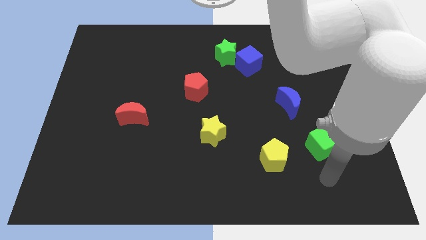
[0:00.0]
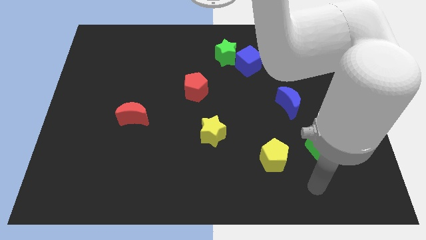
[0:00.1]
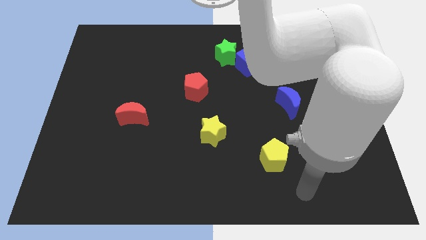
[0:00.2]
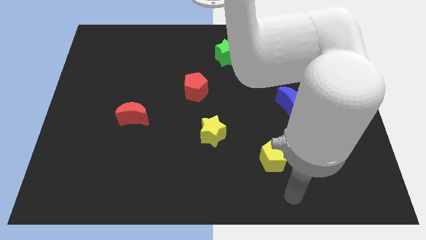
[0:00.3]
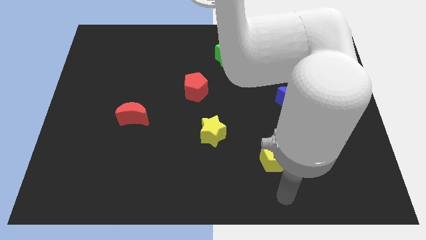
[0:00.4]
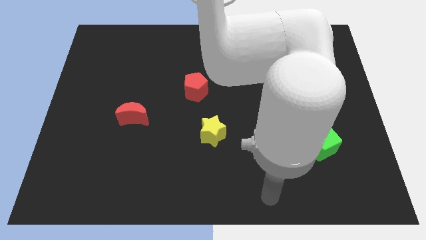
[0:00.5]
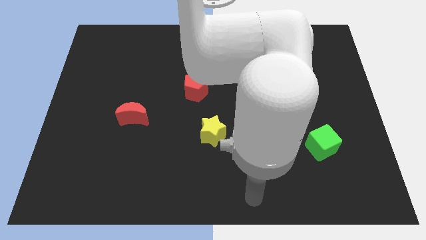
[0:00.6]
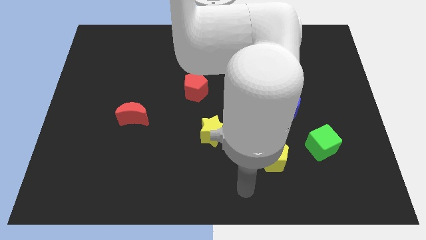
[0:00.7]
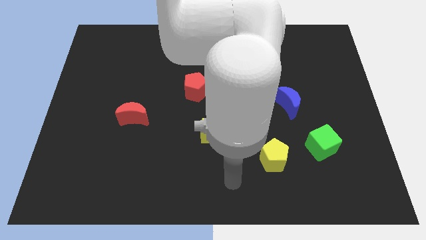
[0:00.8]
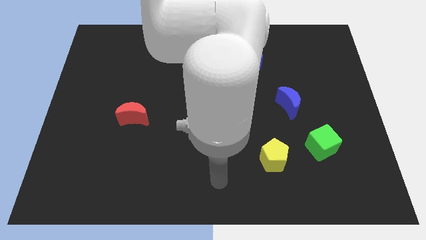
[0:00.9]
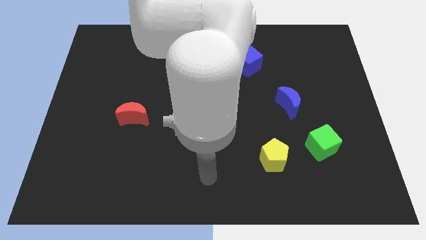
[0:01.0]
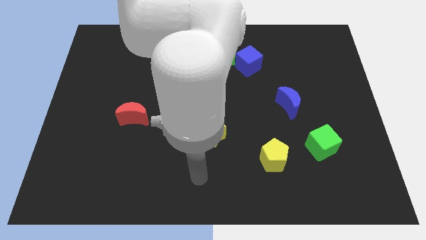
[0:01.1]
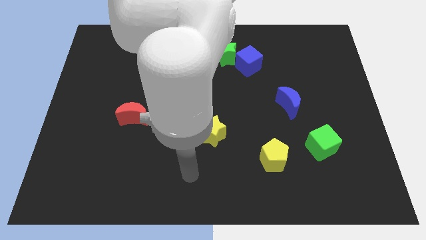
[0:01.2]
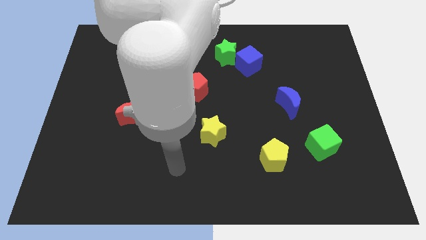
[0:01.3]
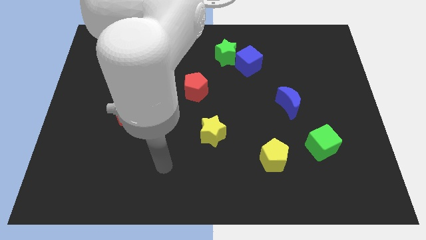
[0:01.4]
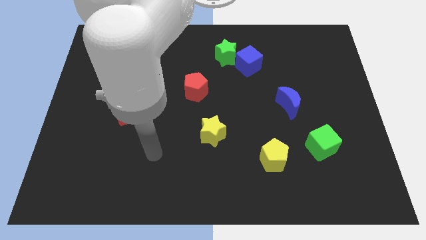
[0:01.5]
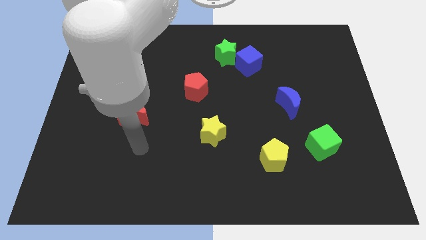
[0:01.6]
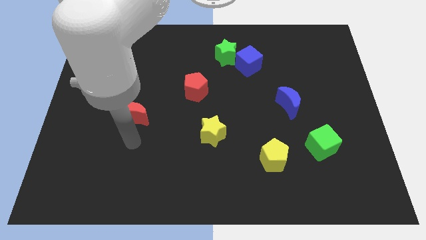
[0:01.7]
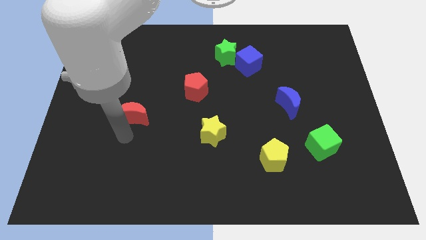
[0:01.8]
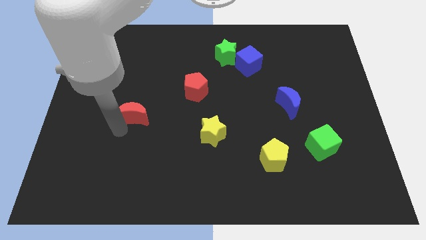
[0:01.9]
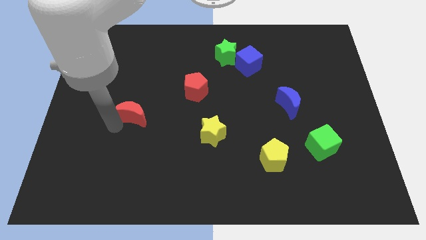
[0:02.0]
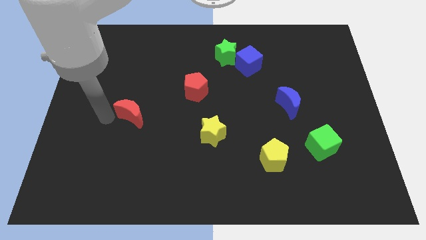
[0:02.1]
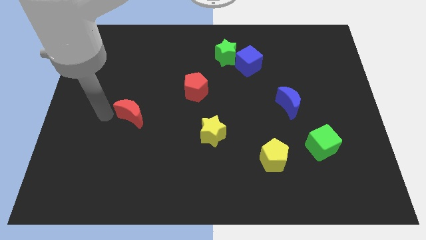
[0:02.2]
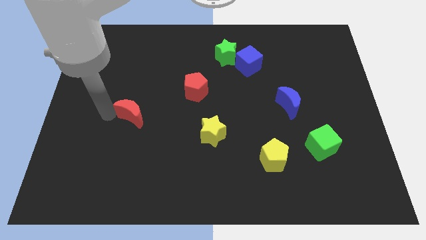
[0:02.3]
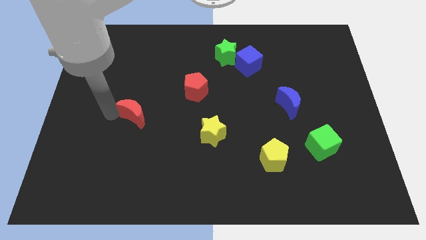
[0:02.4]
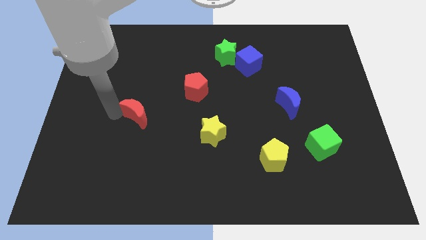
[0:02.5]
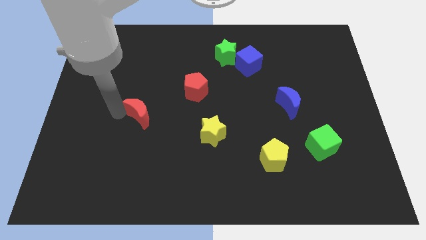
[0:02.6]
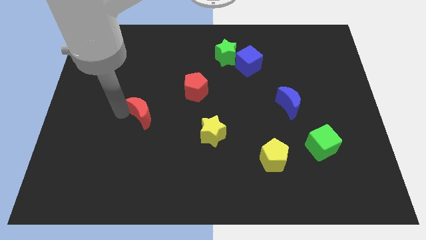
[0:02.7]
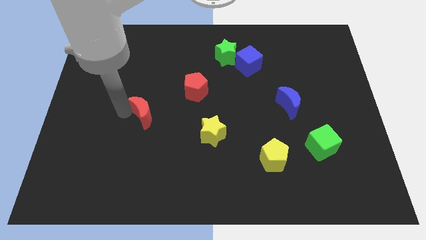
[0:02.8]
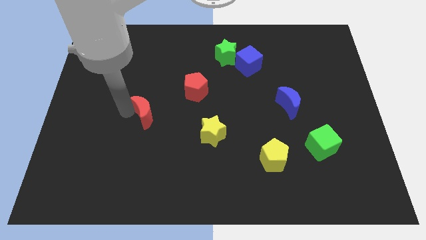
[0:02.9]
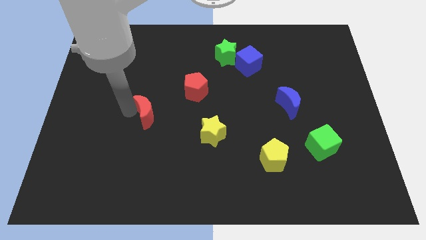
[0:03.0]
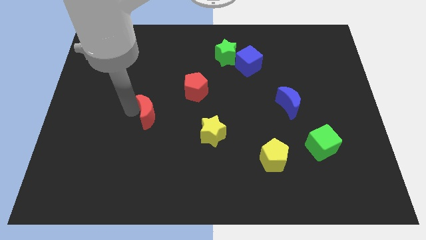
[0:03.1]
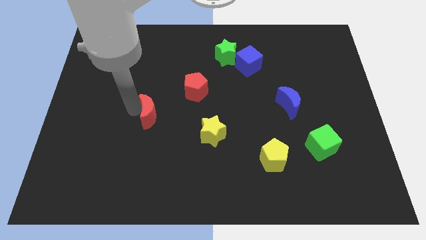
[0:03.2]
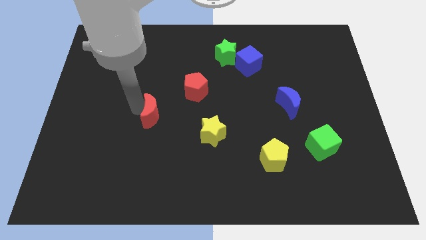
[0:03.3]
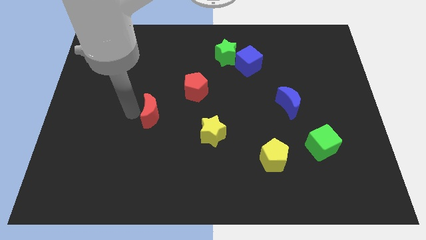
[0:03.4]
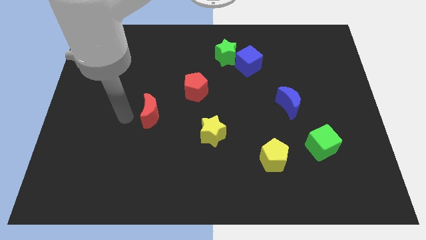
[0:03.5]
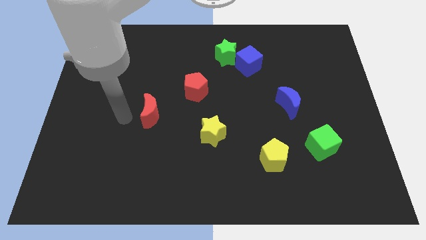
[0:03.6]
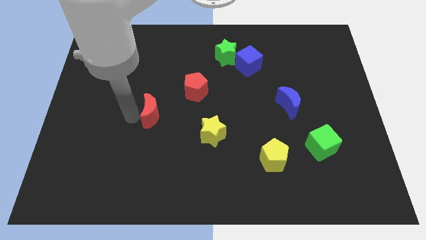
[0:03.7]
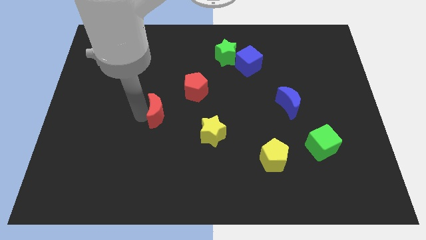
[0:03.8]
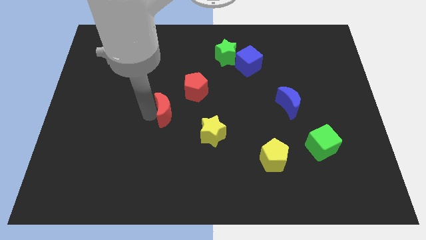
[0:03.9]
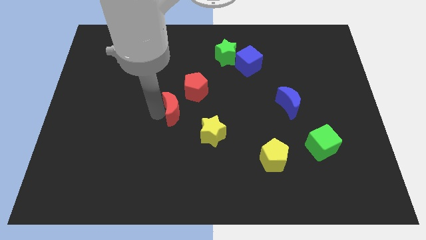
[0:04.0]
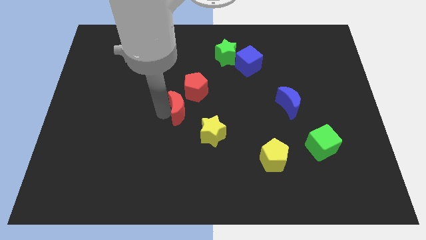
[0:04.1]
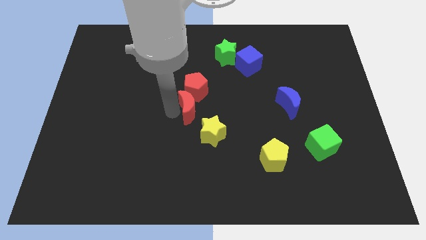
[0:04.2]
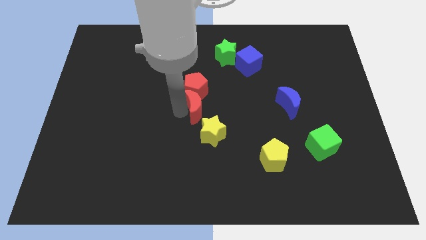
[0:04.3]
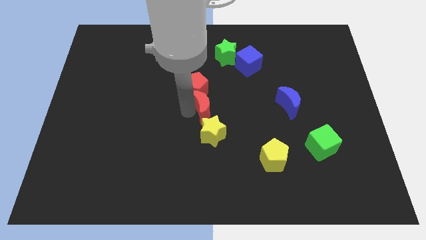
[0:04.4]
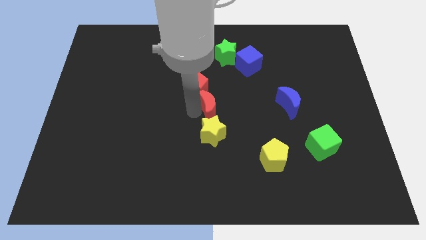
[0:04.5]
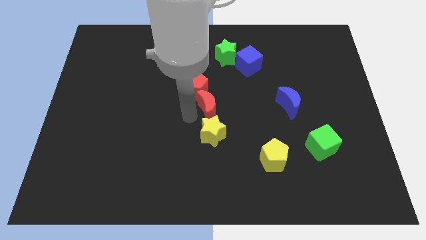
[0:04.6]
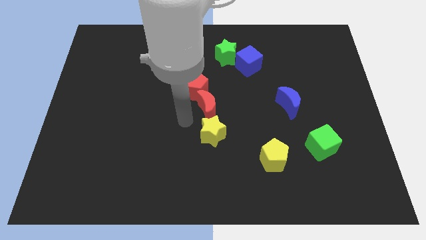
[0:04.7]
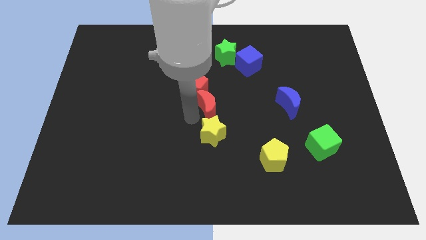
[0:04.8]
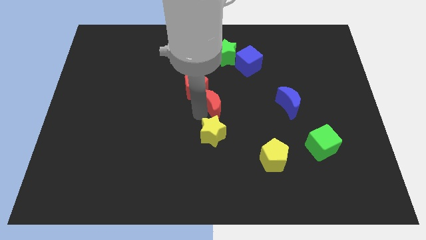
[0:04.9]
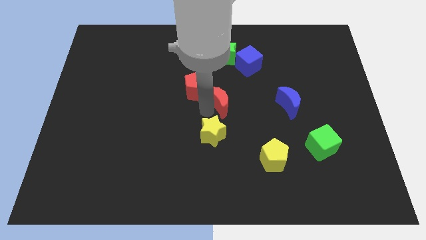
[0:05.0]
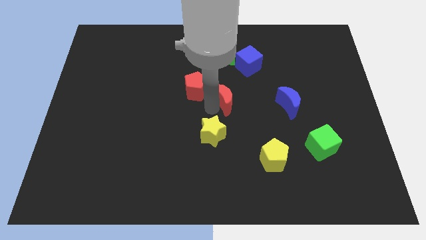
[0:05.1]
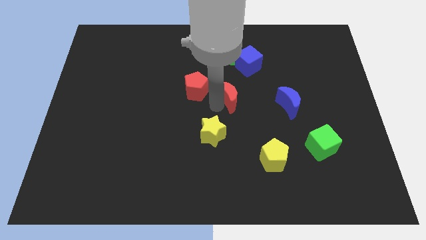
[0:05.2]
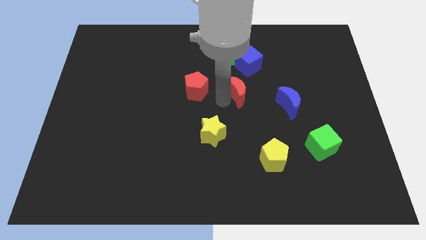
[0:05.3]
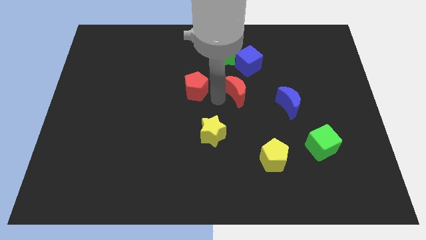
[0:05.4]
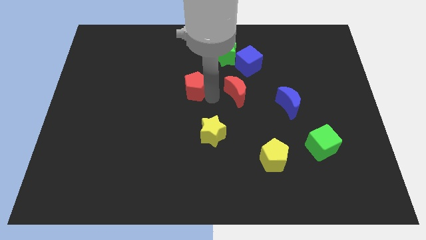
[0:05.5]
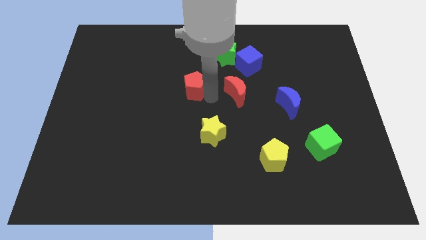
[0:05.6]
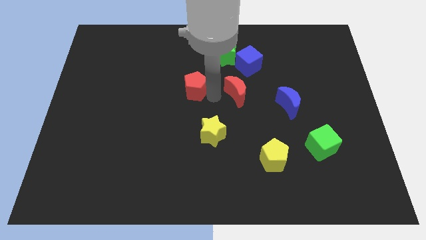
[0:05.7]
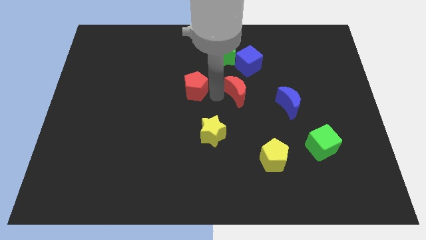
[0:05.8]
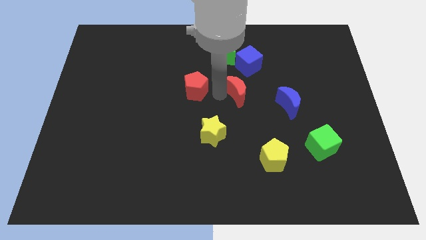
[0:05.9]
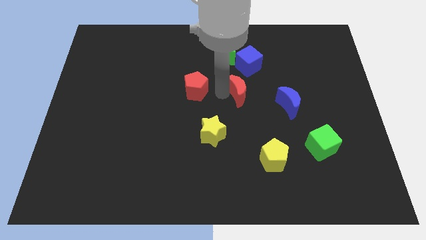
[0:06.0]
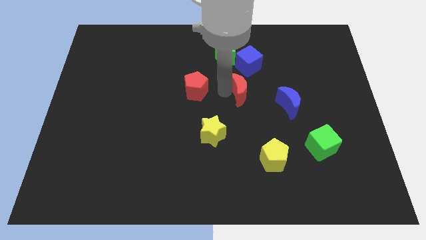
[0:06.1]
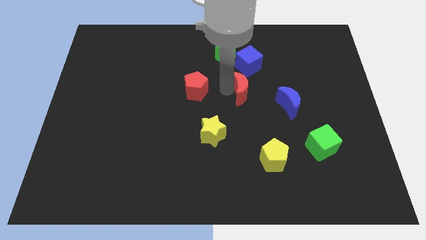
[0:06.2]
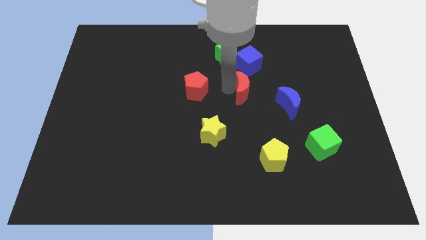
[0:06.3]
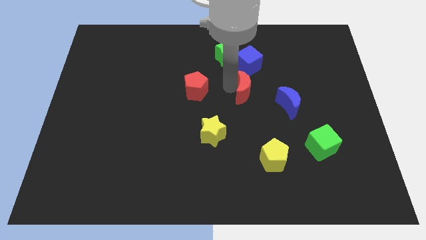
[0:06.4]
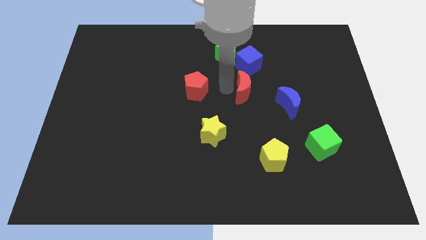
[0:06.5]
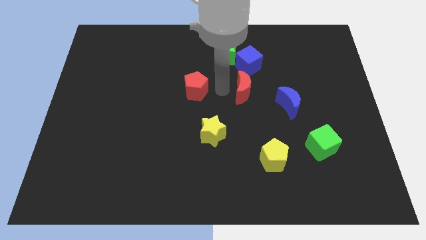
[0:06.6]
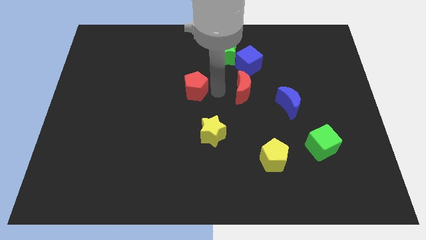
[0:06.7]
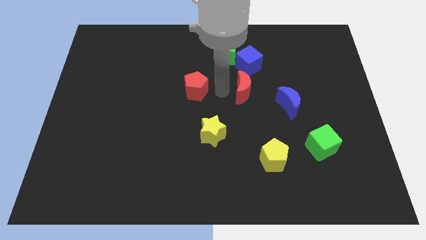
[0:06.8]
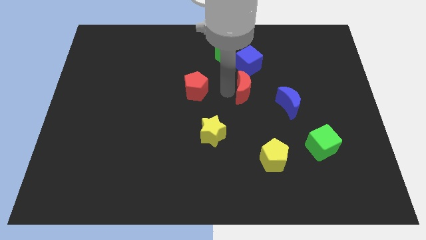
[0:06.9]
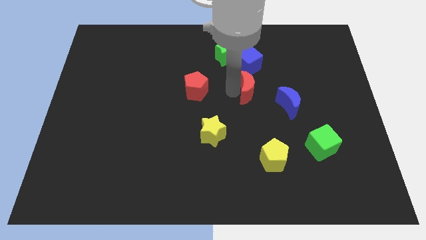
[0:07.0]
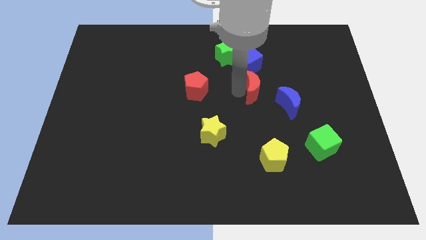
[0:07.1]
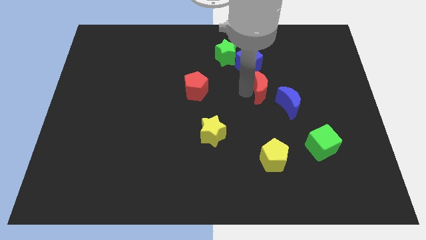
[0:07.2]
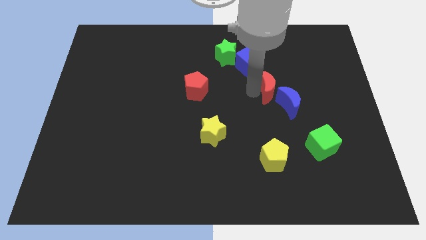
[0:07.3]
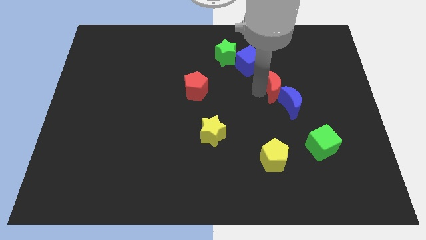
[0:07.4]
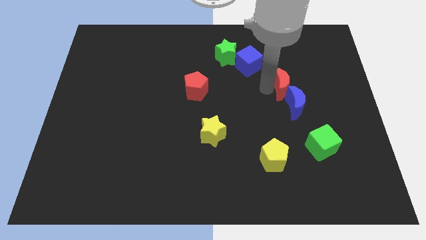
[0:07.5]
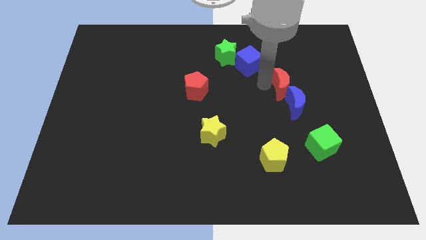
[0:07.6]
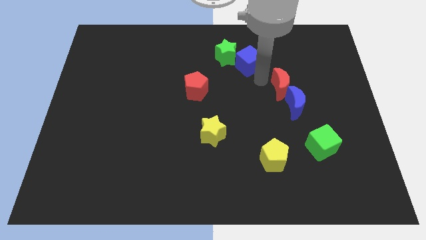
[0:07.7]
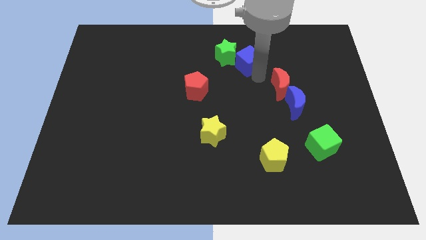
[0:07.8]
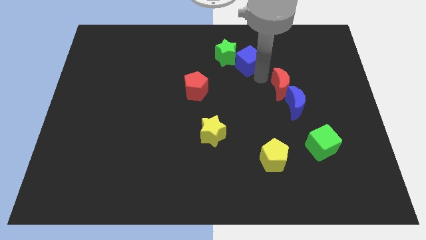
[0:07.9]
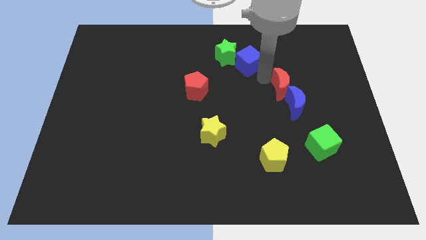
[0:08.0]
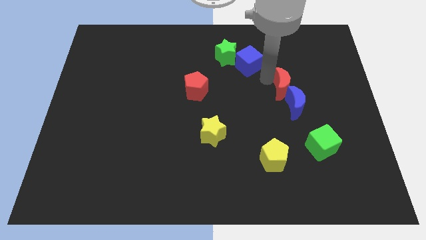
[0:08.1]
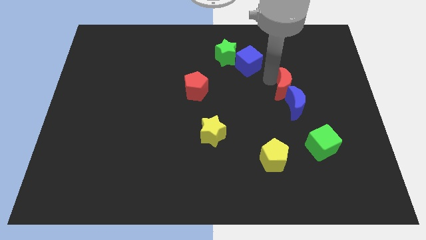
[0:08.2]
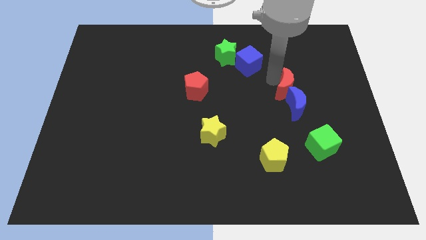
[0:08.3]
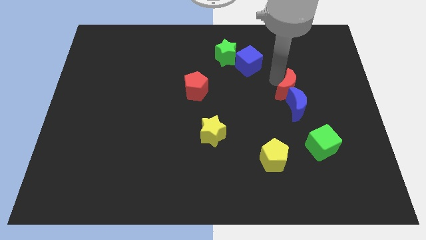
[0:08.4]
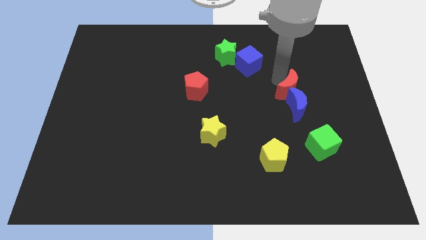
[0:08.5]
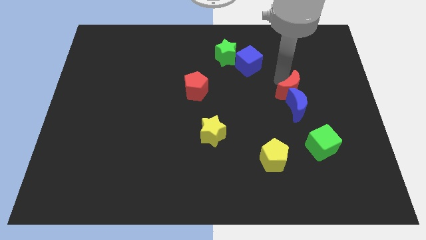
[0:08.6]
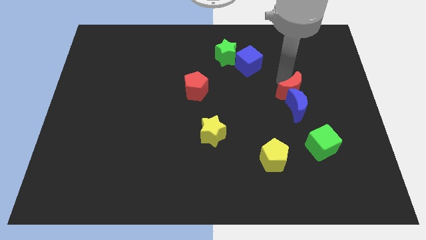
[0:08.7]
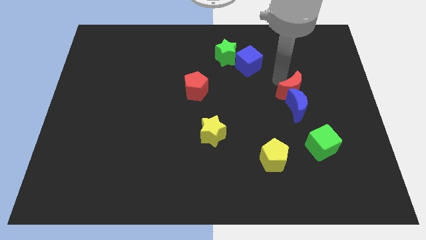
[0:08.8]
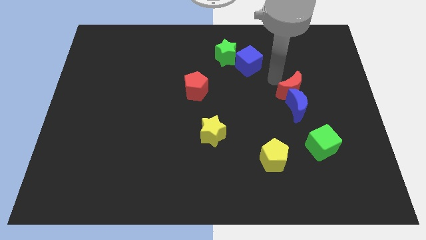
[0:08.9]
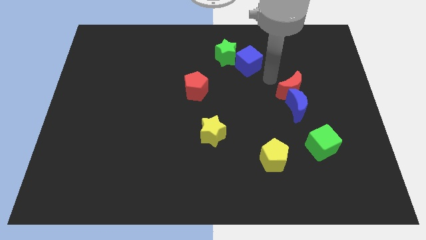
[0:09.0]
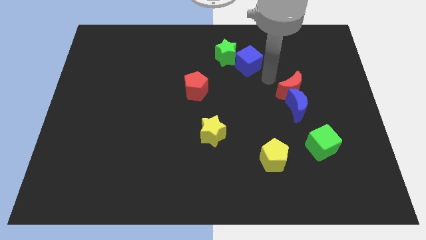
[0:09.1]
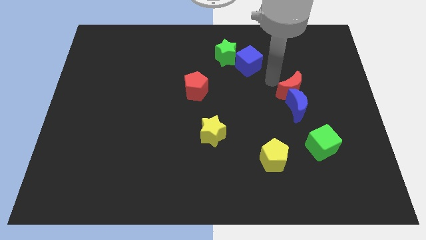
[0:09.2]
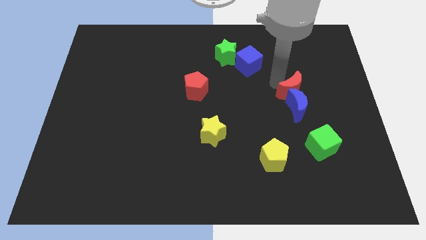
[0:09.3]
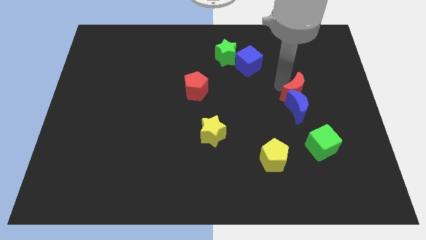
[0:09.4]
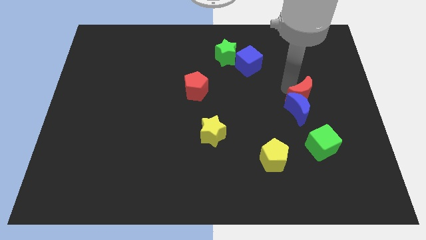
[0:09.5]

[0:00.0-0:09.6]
push the red moon to the top side of the green cube
